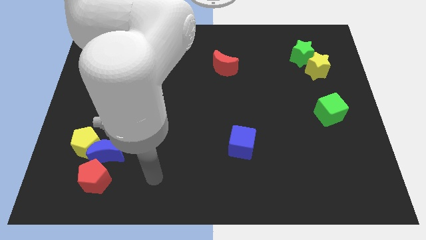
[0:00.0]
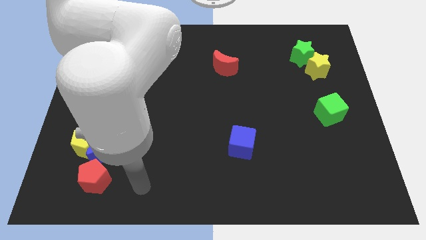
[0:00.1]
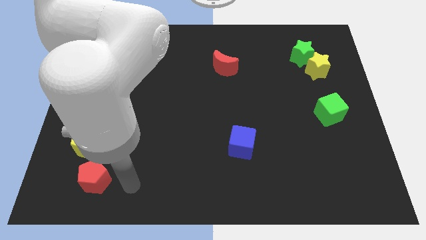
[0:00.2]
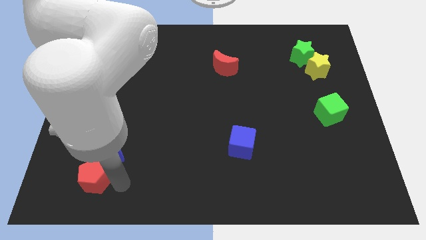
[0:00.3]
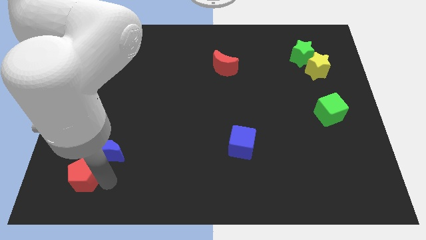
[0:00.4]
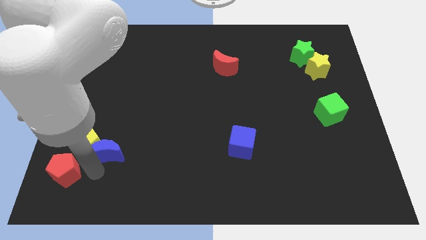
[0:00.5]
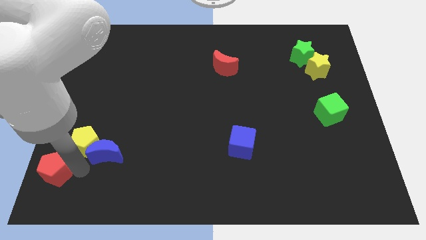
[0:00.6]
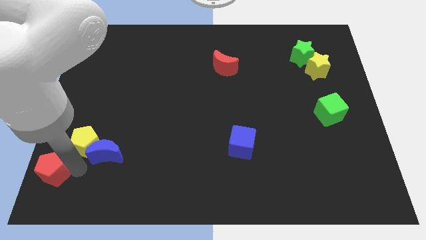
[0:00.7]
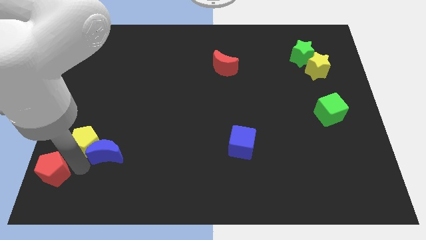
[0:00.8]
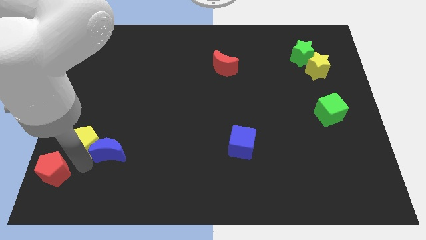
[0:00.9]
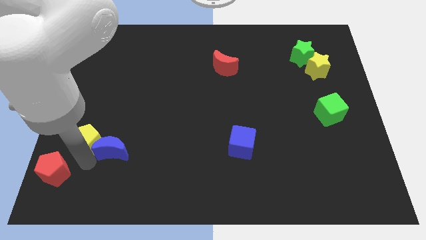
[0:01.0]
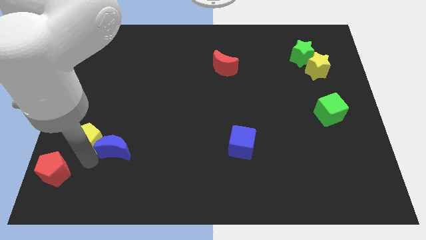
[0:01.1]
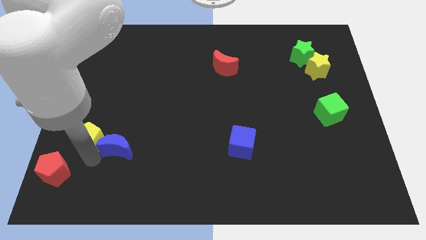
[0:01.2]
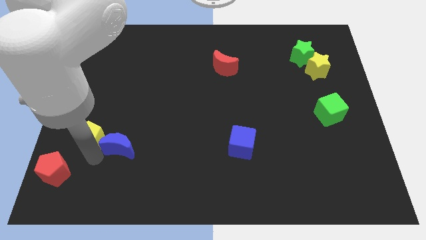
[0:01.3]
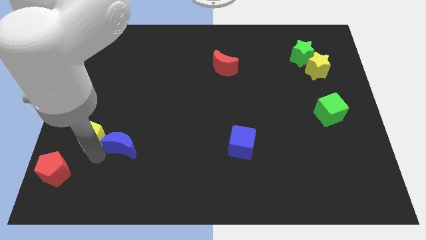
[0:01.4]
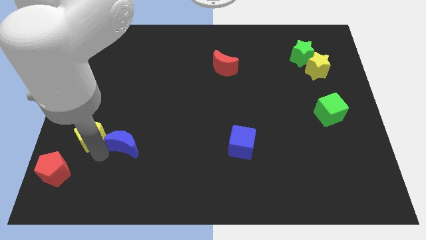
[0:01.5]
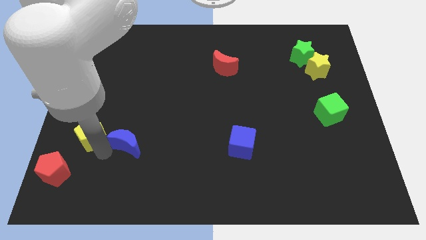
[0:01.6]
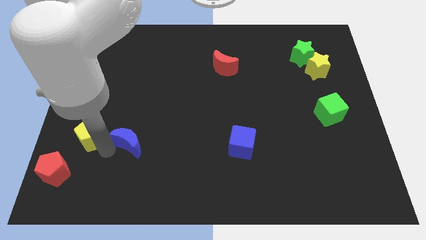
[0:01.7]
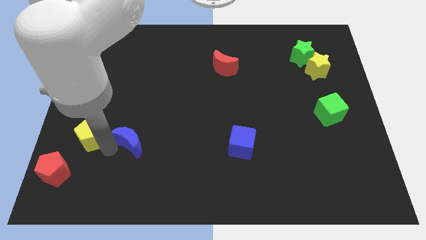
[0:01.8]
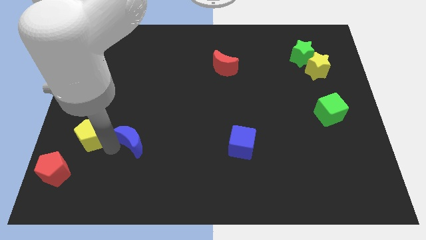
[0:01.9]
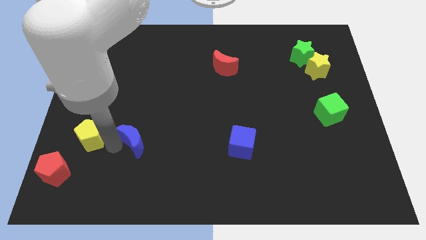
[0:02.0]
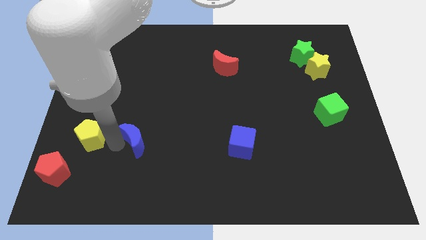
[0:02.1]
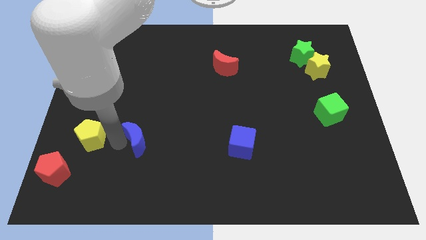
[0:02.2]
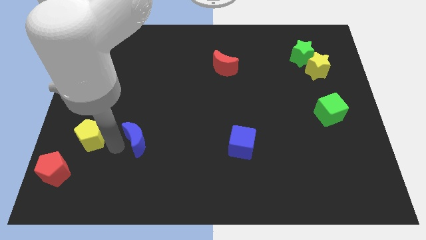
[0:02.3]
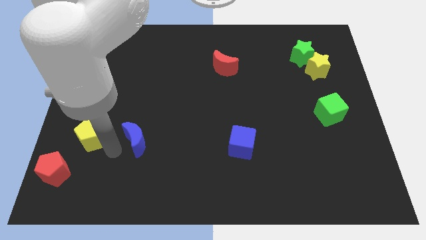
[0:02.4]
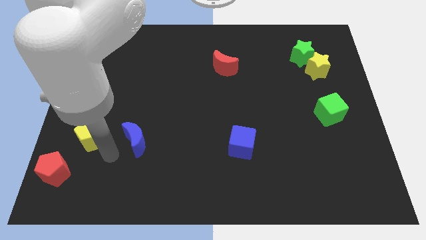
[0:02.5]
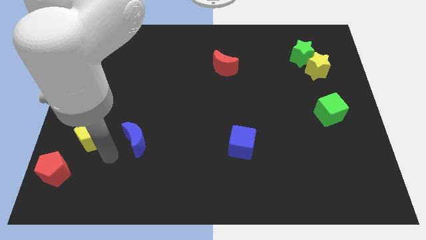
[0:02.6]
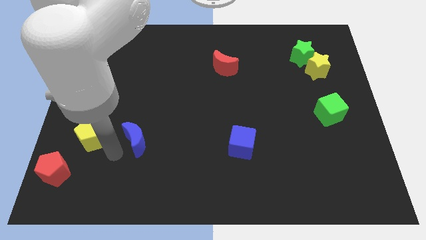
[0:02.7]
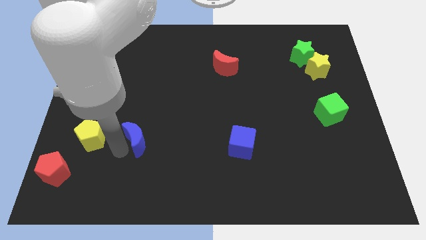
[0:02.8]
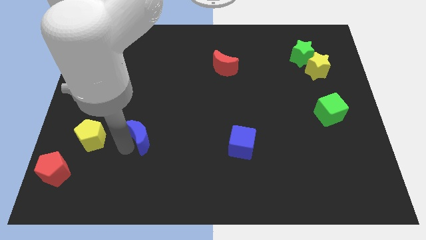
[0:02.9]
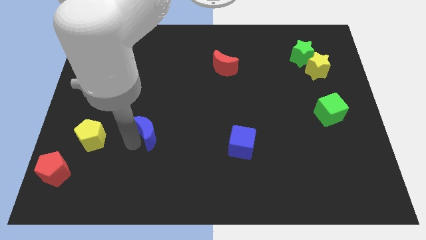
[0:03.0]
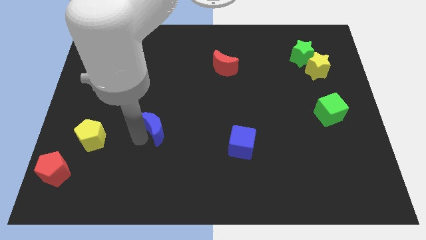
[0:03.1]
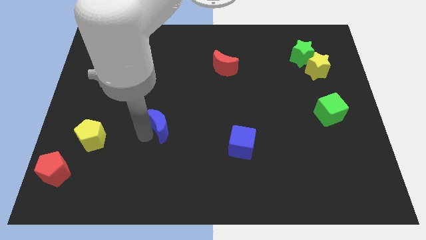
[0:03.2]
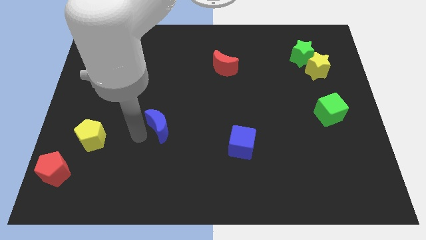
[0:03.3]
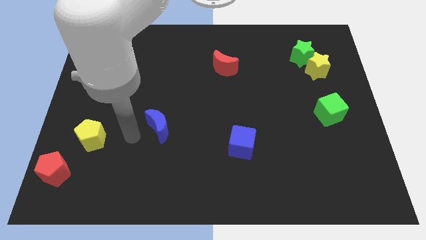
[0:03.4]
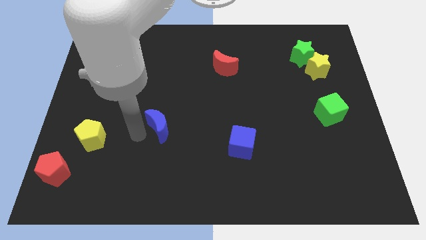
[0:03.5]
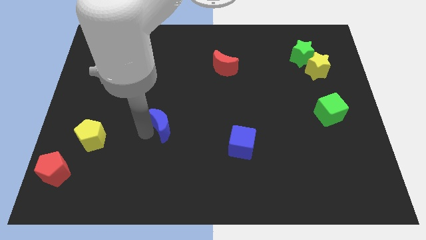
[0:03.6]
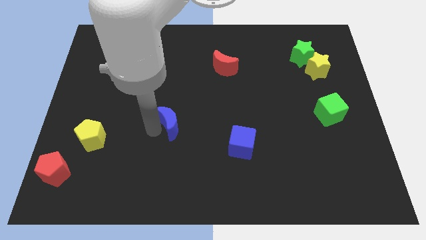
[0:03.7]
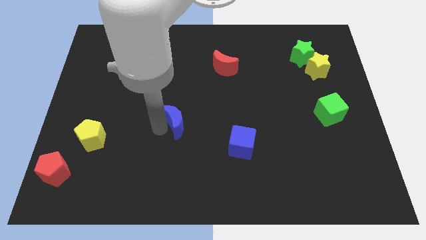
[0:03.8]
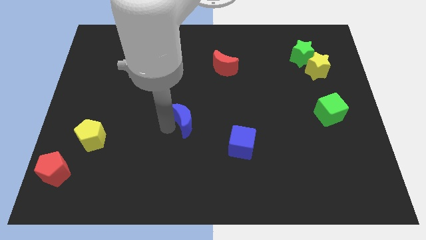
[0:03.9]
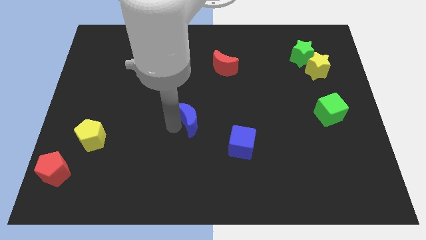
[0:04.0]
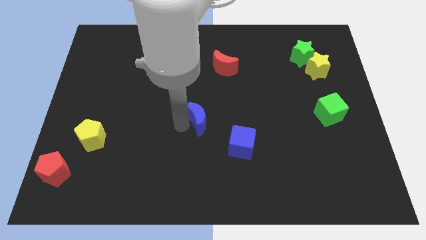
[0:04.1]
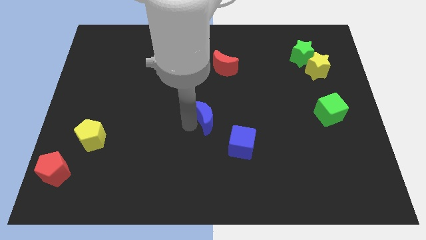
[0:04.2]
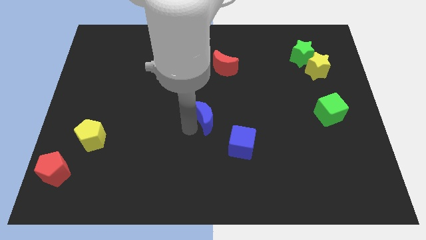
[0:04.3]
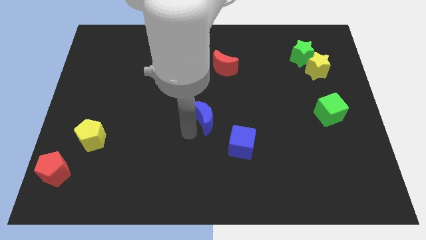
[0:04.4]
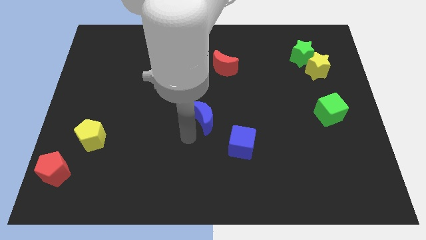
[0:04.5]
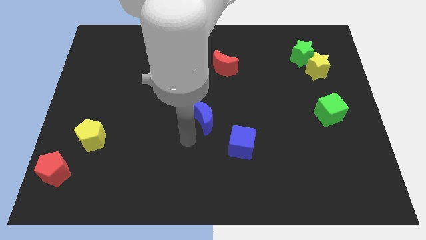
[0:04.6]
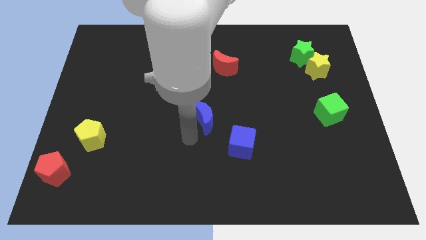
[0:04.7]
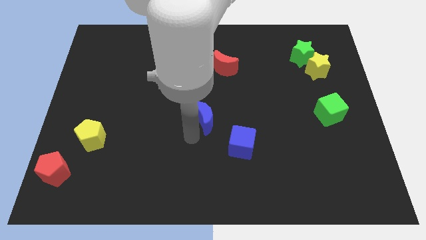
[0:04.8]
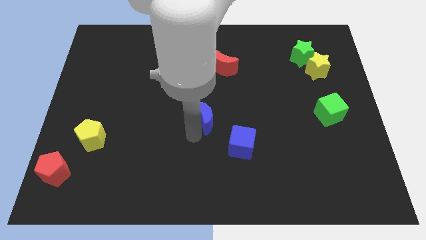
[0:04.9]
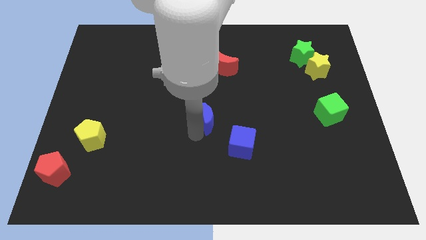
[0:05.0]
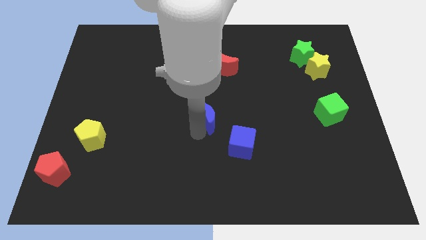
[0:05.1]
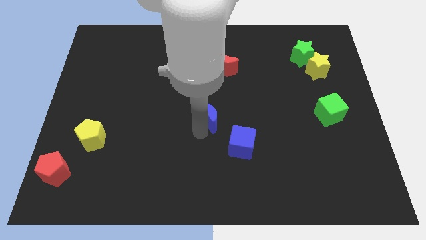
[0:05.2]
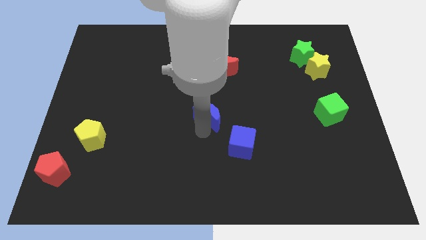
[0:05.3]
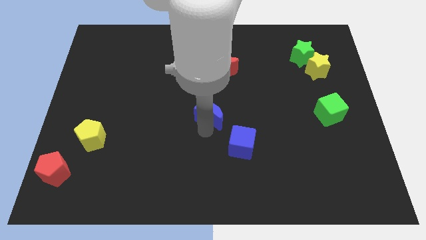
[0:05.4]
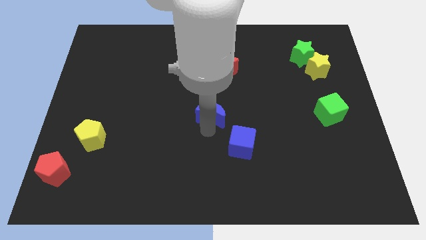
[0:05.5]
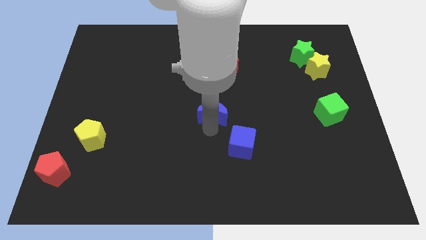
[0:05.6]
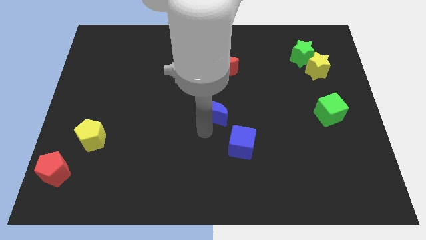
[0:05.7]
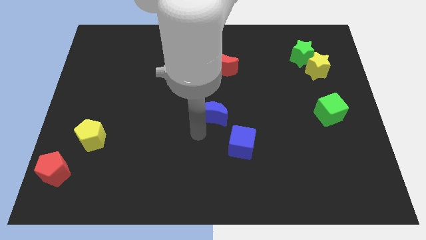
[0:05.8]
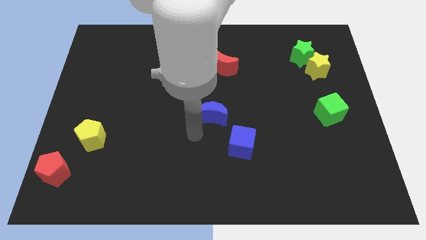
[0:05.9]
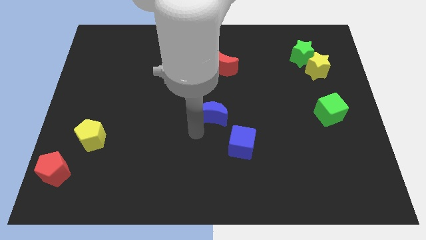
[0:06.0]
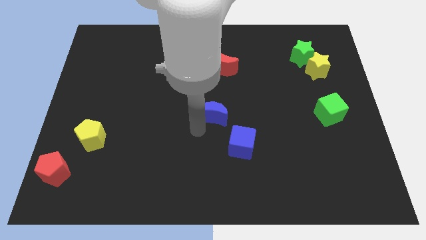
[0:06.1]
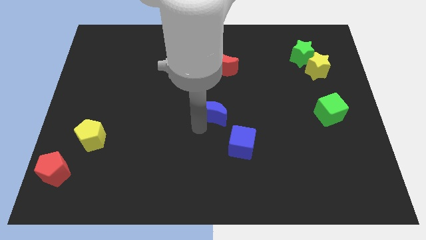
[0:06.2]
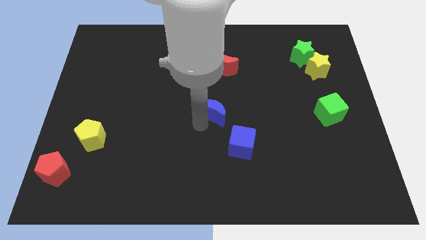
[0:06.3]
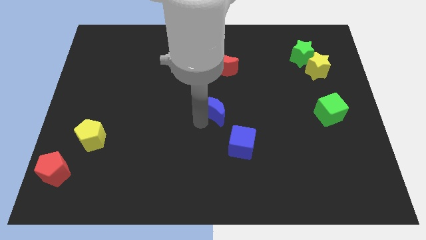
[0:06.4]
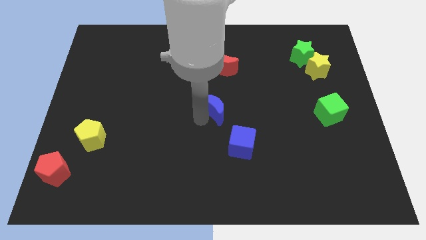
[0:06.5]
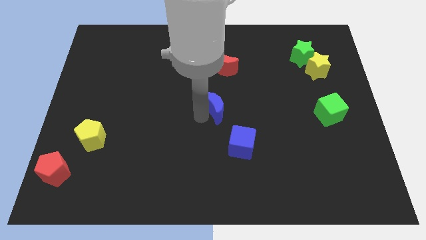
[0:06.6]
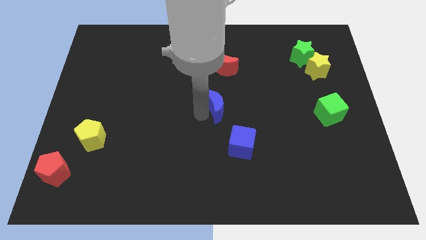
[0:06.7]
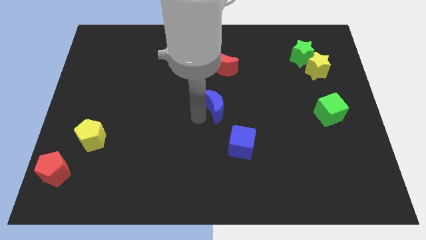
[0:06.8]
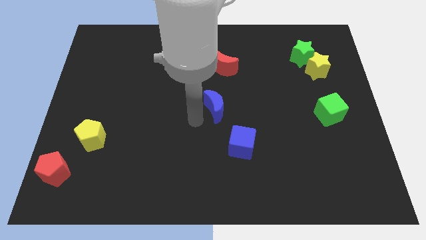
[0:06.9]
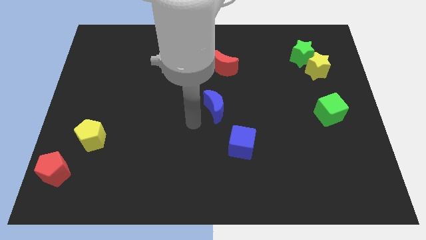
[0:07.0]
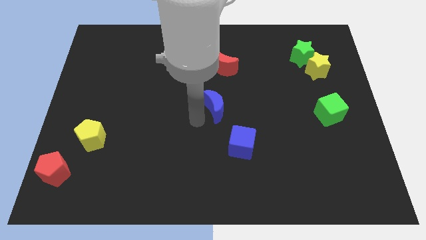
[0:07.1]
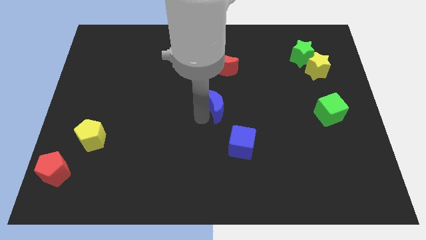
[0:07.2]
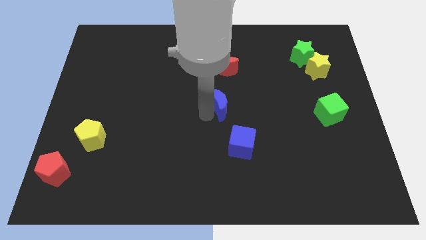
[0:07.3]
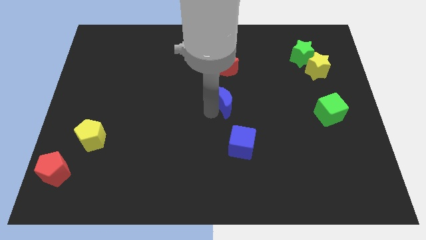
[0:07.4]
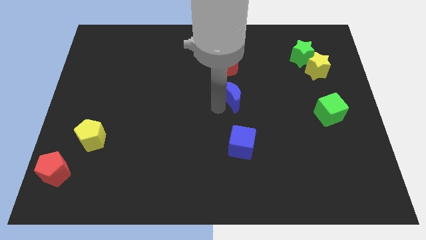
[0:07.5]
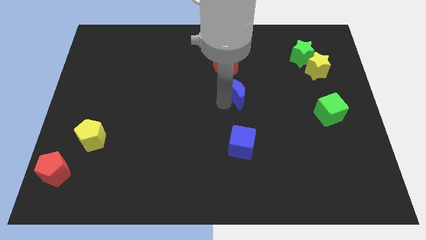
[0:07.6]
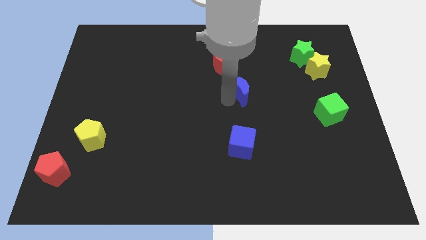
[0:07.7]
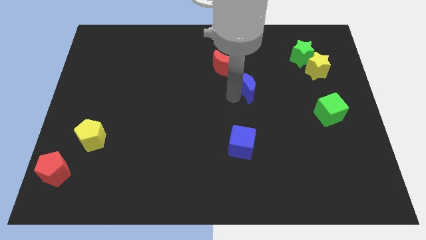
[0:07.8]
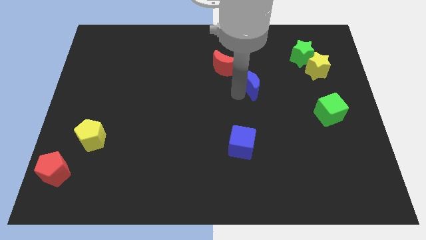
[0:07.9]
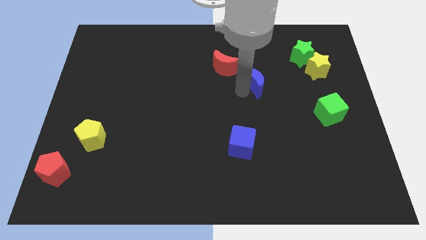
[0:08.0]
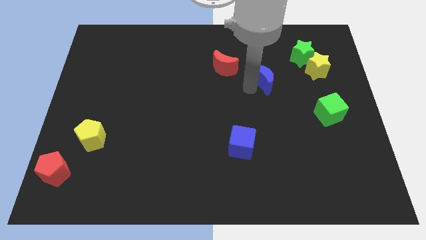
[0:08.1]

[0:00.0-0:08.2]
put the blue moon left of the yellow star
